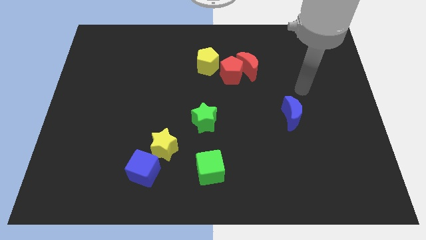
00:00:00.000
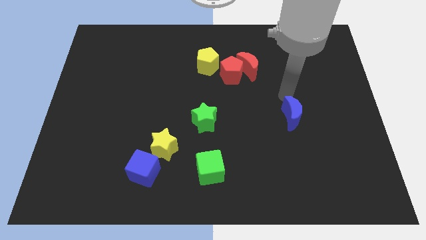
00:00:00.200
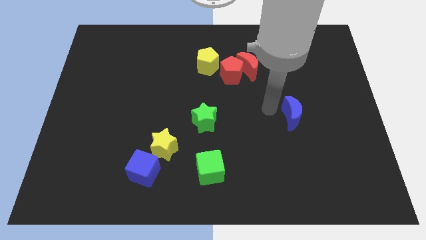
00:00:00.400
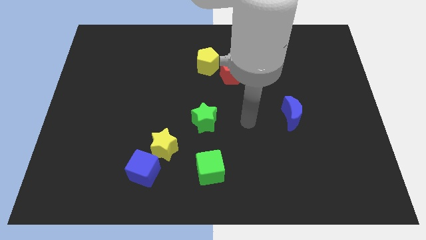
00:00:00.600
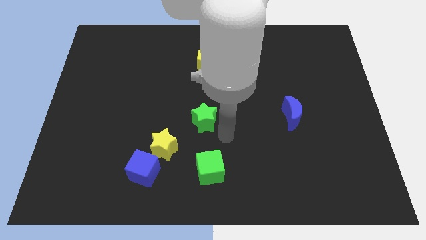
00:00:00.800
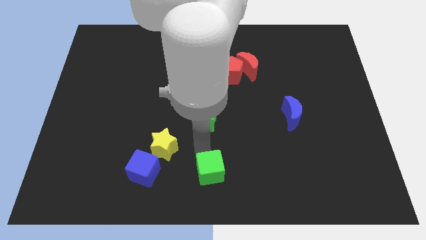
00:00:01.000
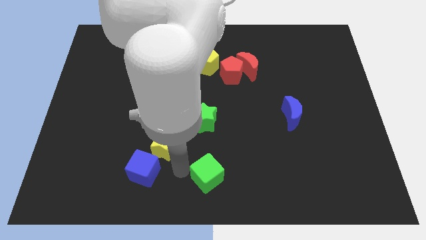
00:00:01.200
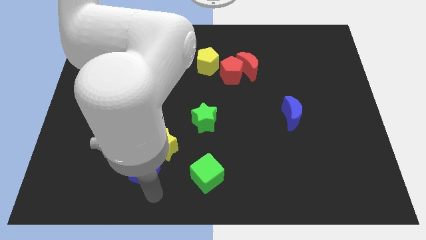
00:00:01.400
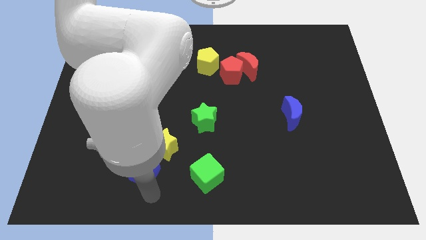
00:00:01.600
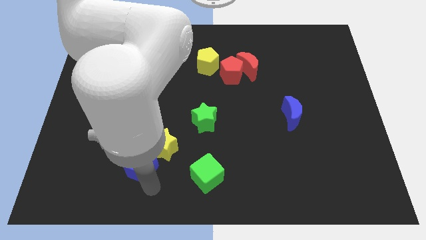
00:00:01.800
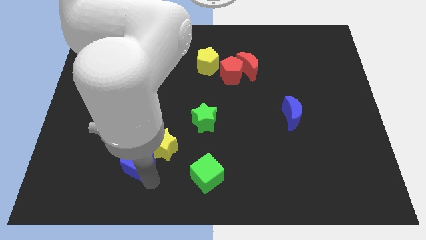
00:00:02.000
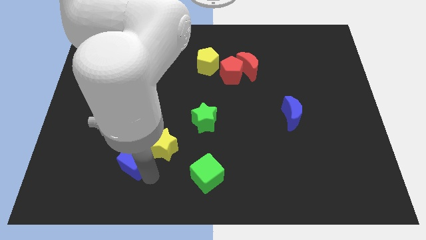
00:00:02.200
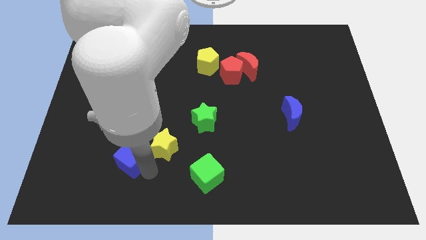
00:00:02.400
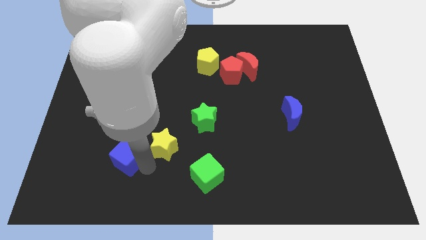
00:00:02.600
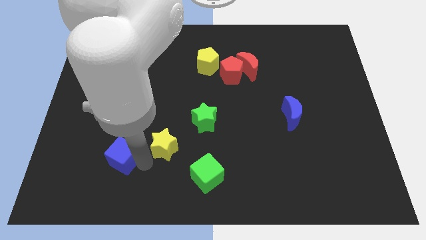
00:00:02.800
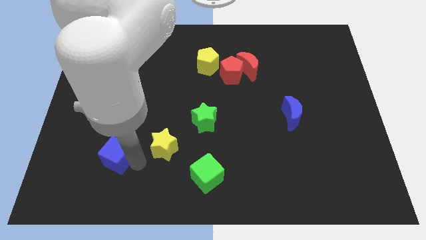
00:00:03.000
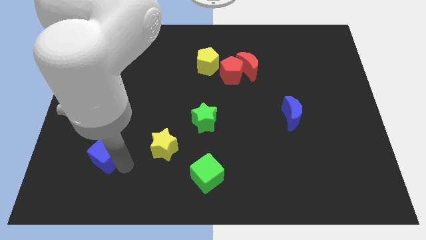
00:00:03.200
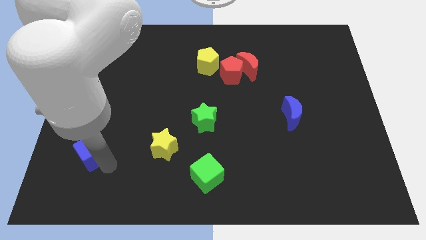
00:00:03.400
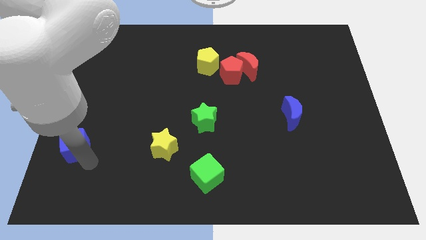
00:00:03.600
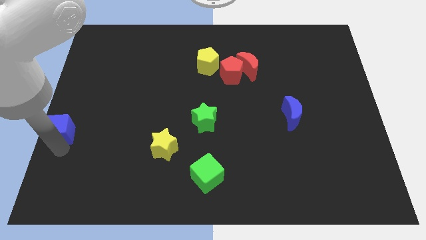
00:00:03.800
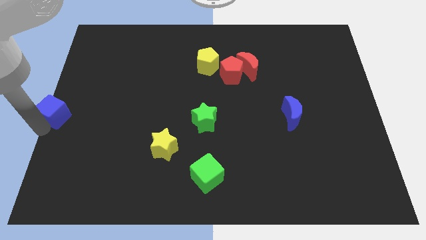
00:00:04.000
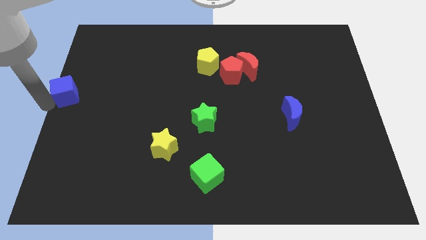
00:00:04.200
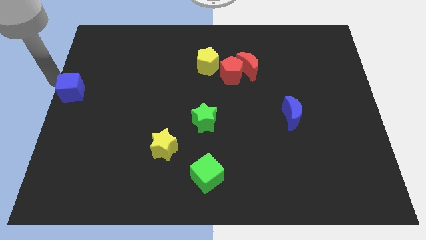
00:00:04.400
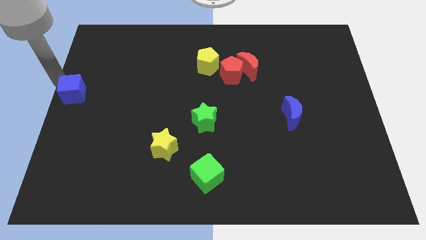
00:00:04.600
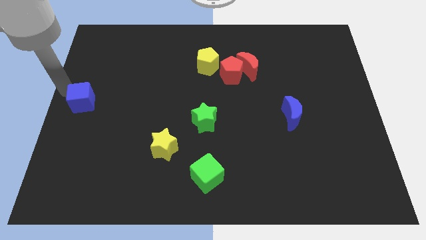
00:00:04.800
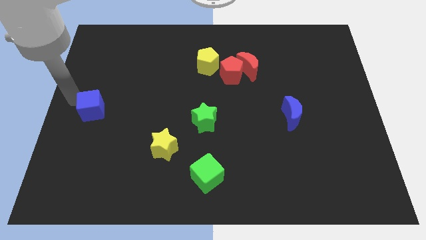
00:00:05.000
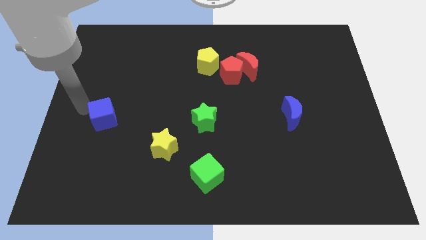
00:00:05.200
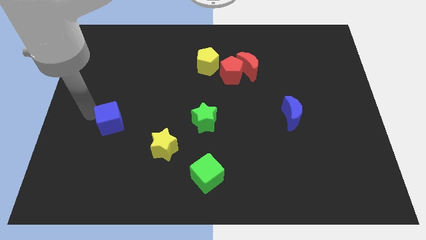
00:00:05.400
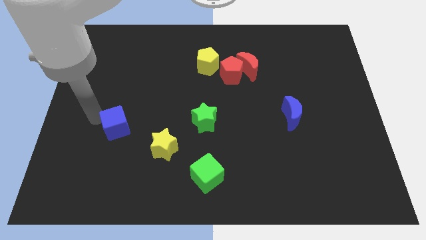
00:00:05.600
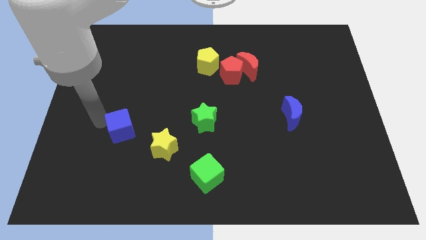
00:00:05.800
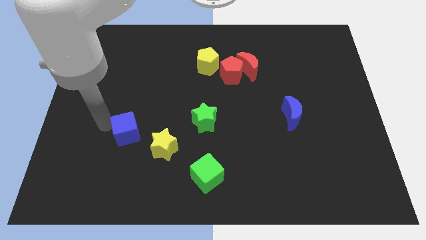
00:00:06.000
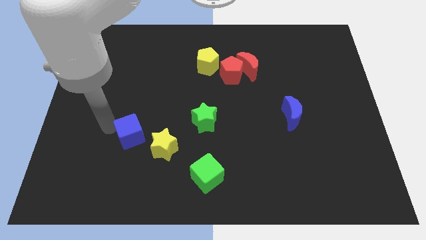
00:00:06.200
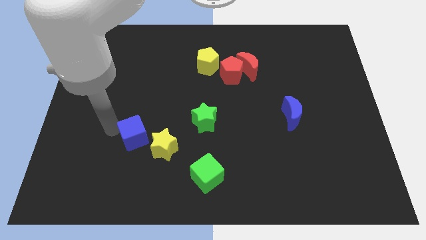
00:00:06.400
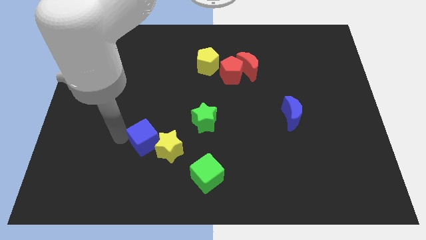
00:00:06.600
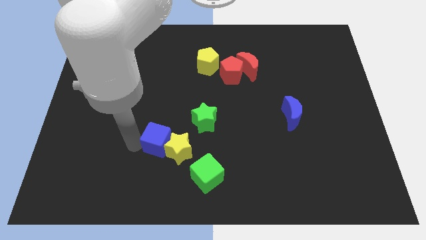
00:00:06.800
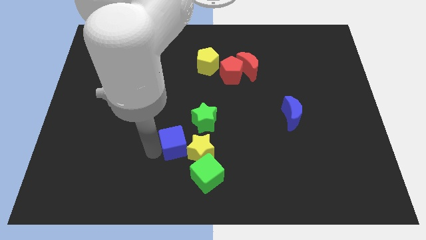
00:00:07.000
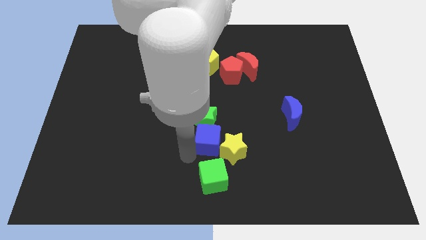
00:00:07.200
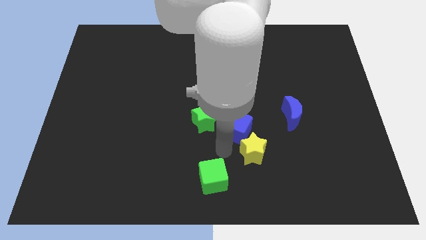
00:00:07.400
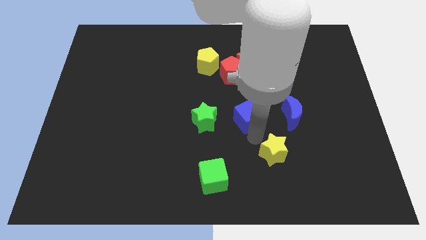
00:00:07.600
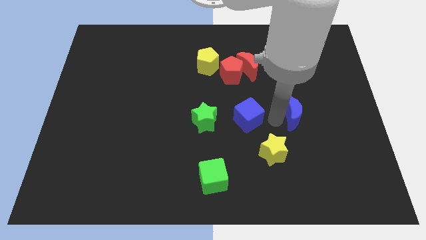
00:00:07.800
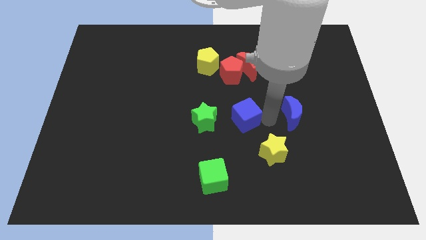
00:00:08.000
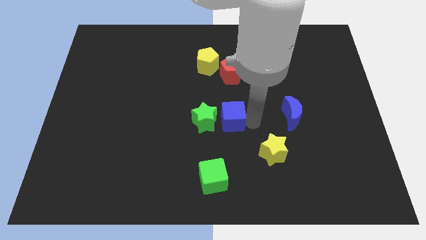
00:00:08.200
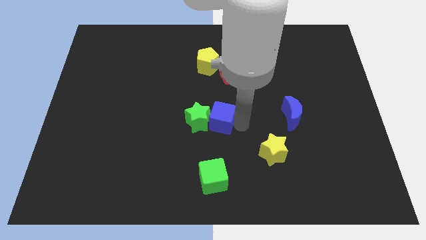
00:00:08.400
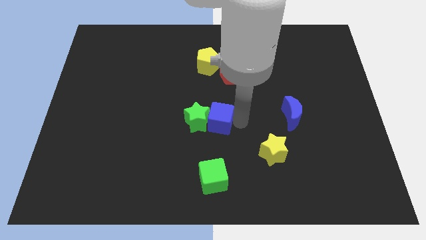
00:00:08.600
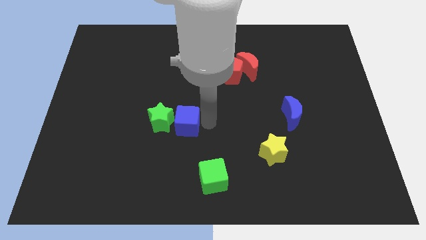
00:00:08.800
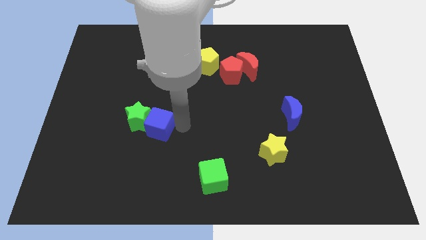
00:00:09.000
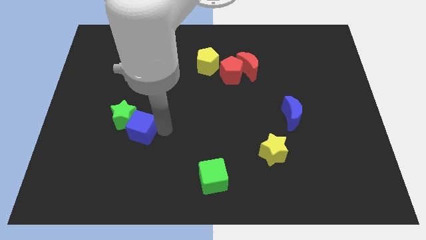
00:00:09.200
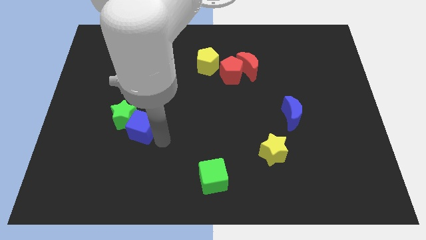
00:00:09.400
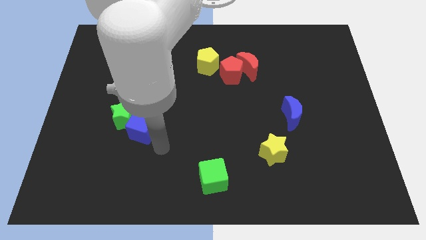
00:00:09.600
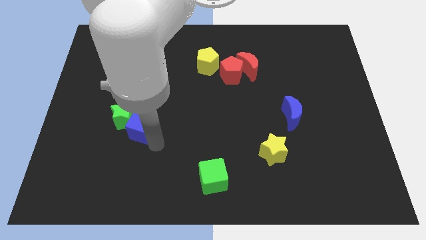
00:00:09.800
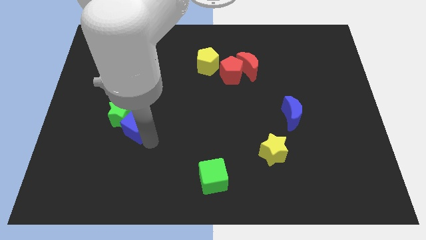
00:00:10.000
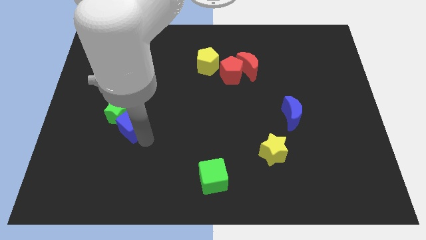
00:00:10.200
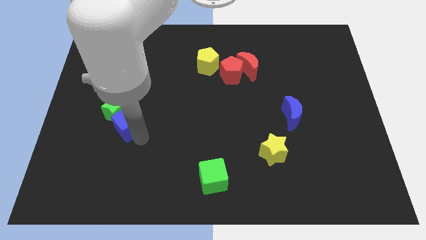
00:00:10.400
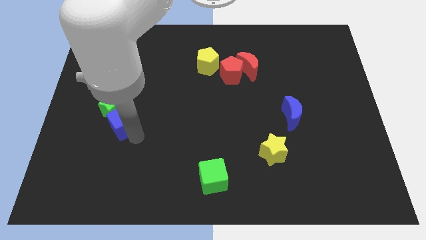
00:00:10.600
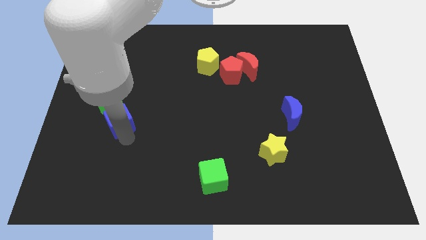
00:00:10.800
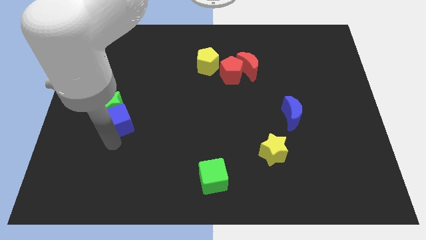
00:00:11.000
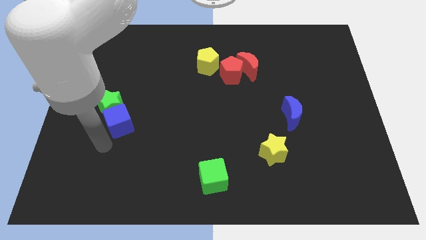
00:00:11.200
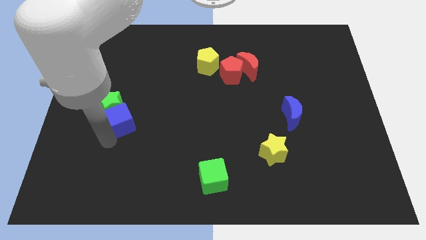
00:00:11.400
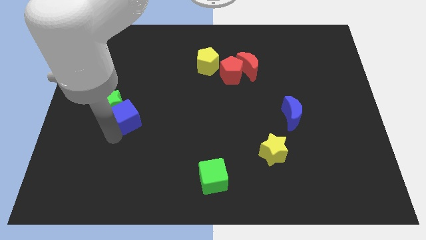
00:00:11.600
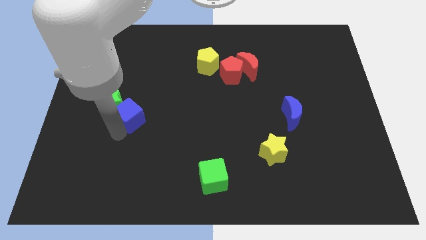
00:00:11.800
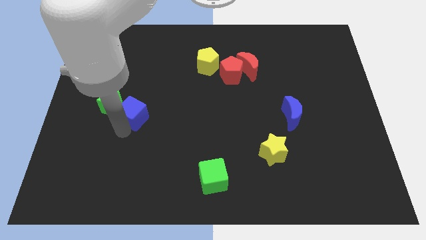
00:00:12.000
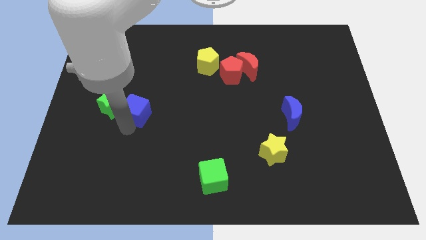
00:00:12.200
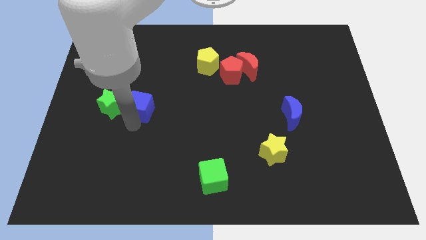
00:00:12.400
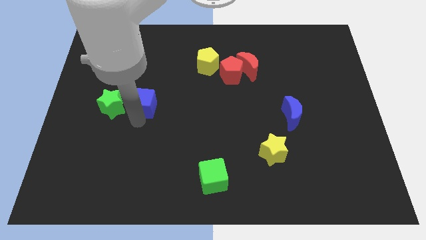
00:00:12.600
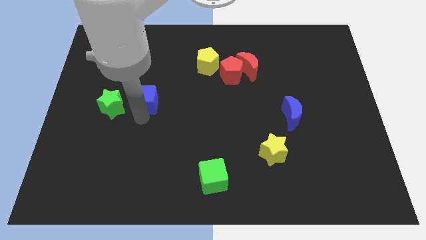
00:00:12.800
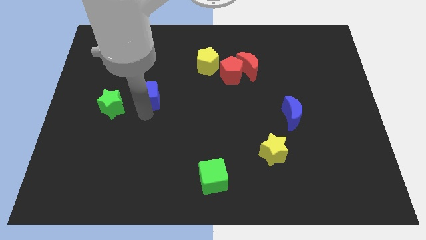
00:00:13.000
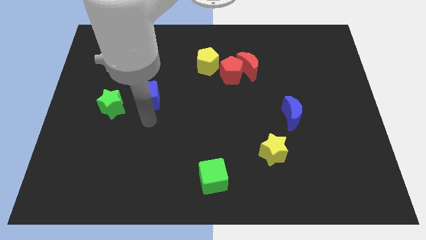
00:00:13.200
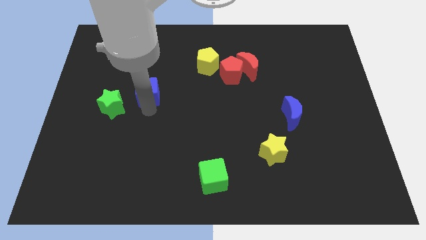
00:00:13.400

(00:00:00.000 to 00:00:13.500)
slide the blue cube upwards

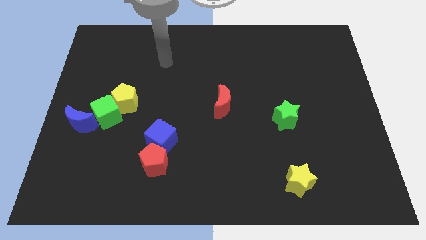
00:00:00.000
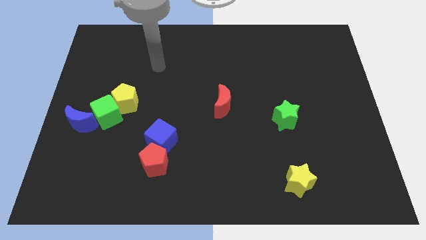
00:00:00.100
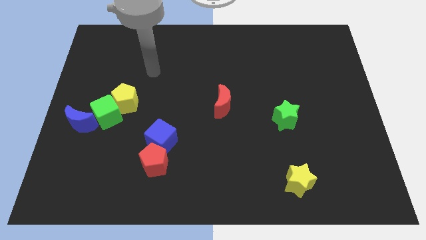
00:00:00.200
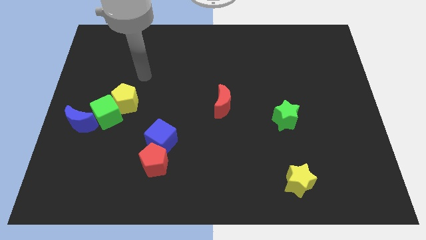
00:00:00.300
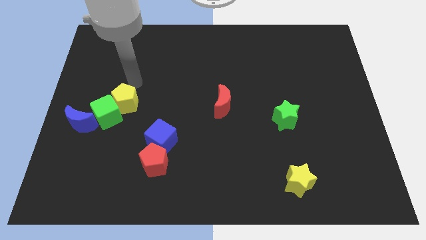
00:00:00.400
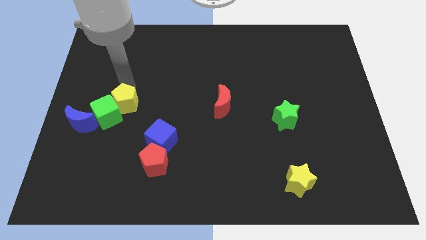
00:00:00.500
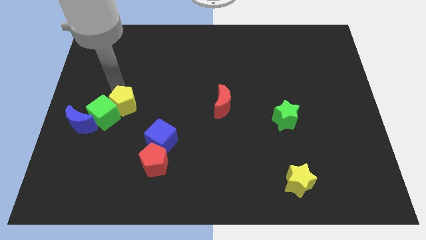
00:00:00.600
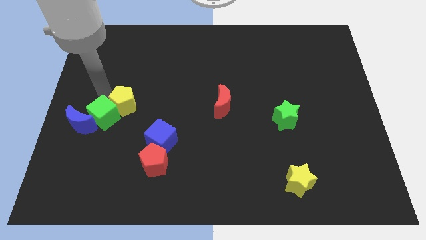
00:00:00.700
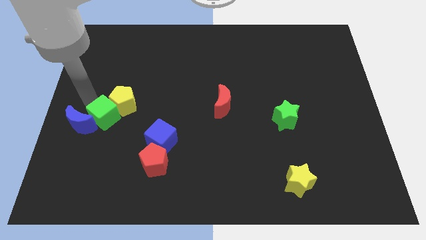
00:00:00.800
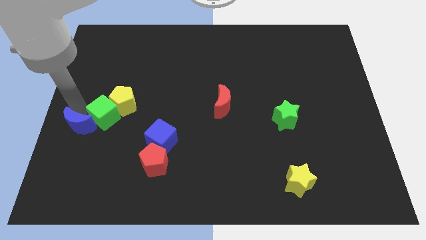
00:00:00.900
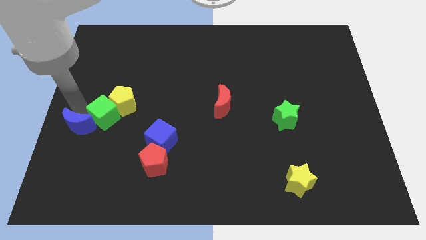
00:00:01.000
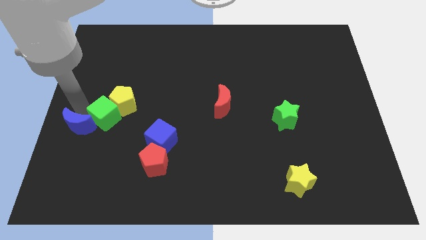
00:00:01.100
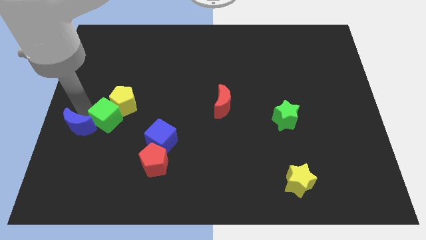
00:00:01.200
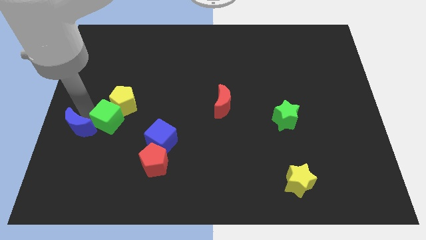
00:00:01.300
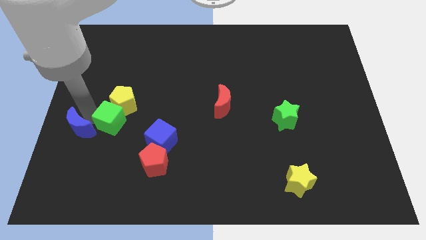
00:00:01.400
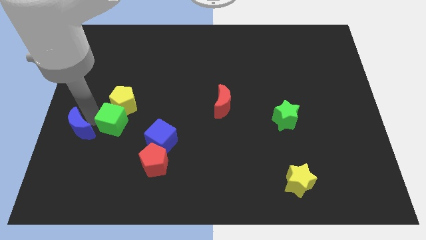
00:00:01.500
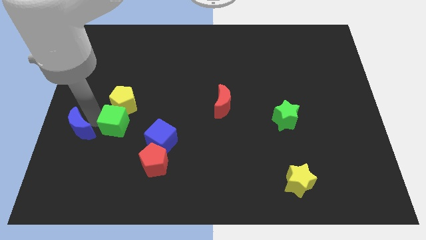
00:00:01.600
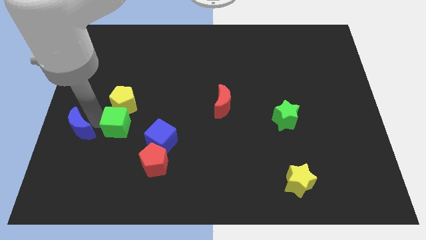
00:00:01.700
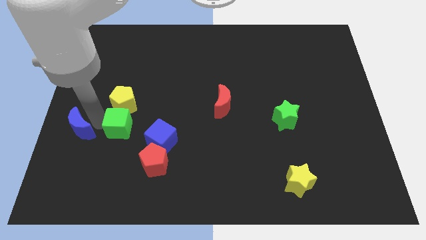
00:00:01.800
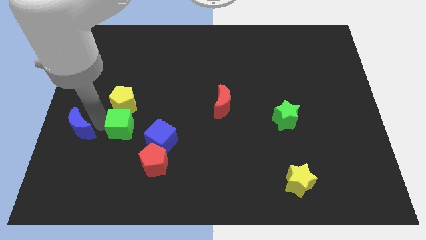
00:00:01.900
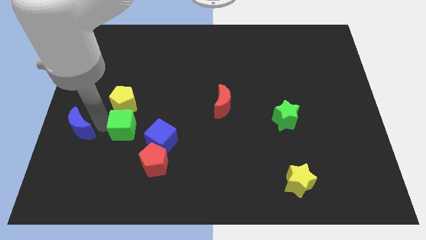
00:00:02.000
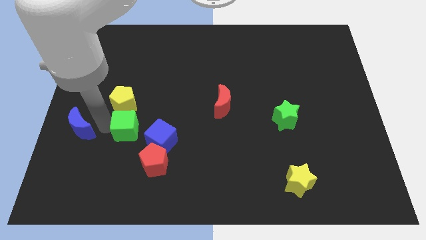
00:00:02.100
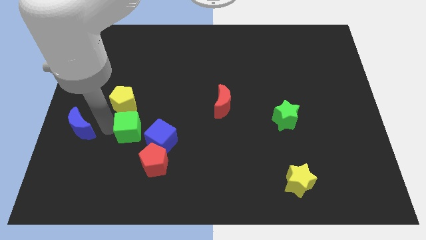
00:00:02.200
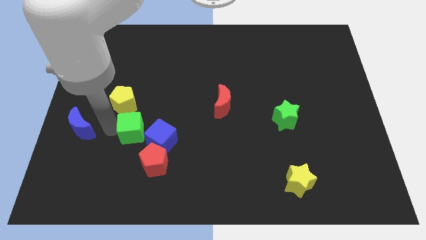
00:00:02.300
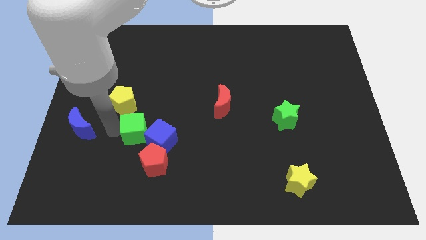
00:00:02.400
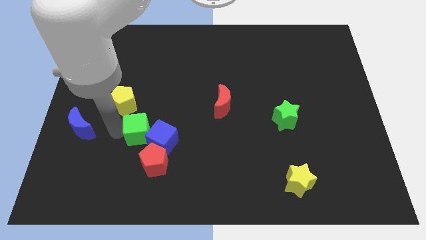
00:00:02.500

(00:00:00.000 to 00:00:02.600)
push the green cube to the right a little bit
